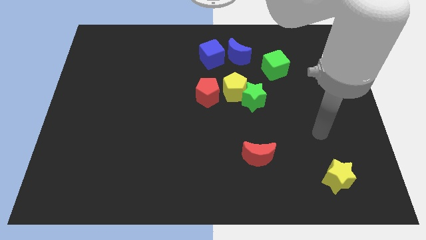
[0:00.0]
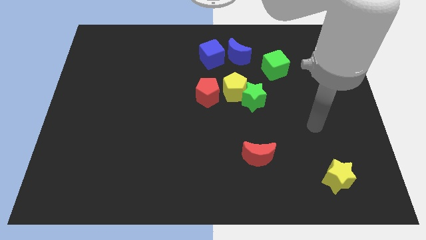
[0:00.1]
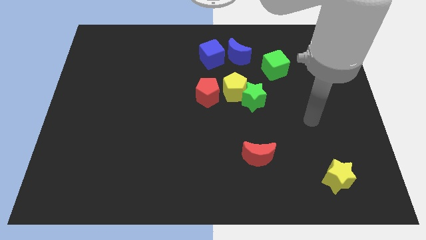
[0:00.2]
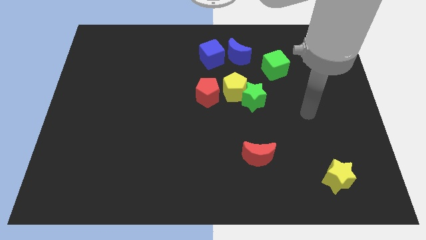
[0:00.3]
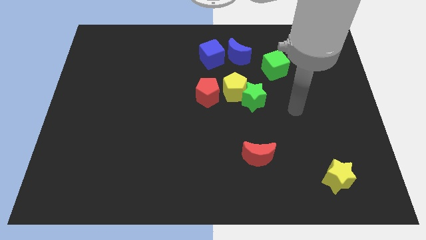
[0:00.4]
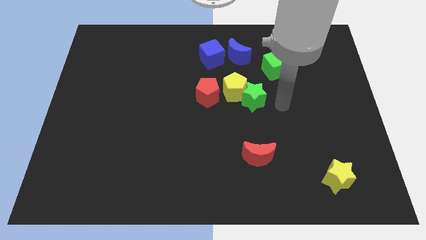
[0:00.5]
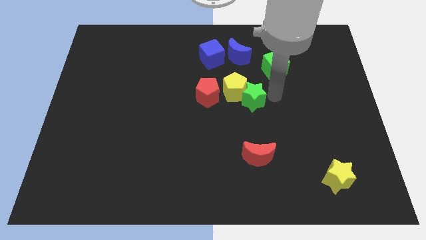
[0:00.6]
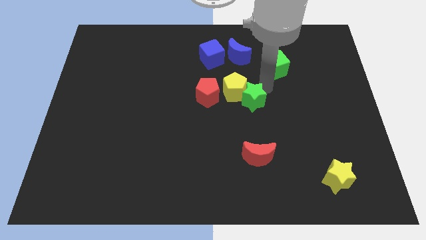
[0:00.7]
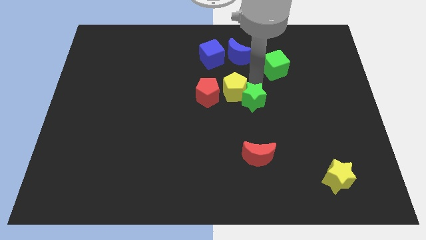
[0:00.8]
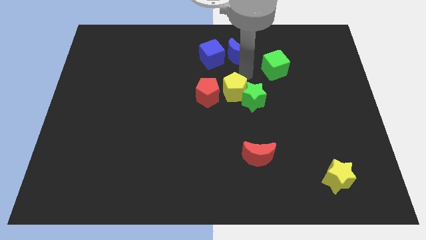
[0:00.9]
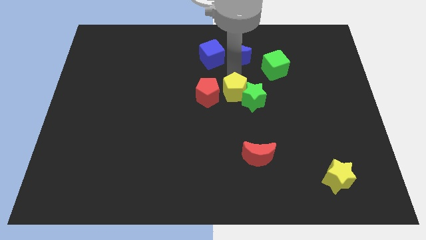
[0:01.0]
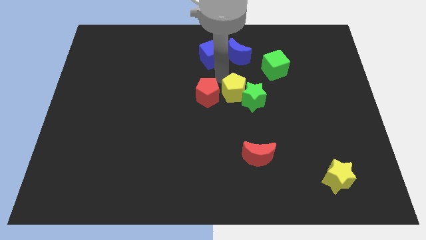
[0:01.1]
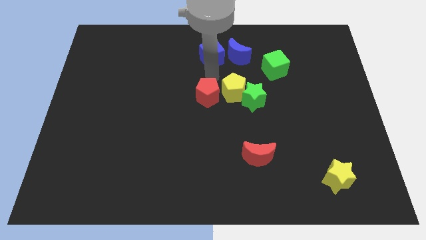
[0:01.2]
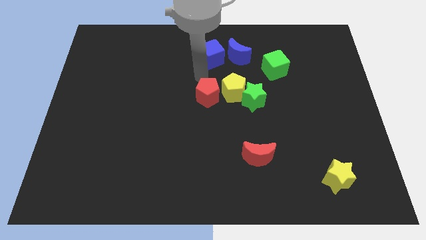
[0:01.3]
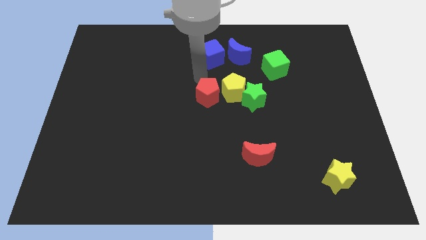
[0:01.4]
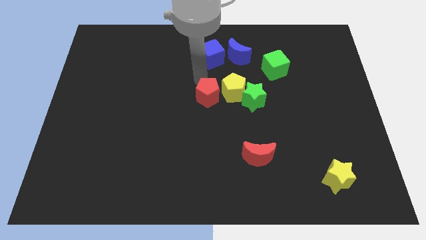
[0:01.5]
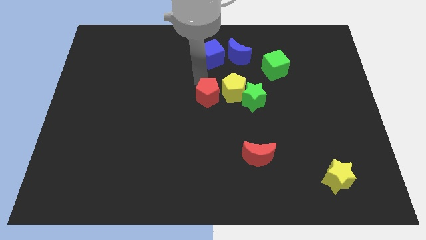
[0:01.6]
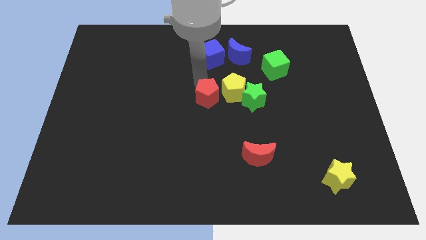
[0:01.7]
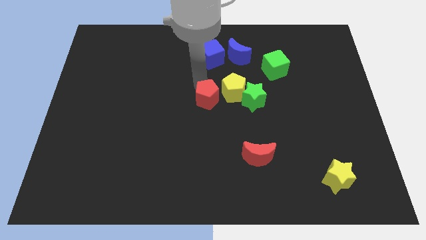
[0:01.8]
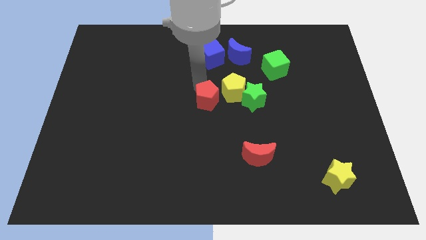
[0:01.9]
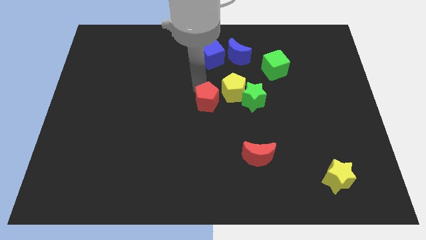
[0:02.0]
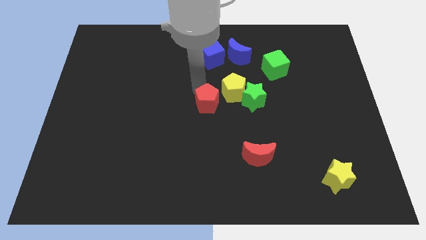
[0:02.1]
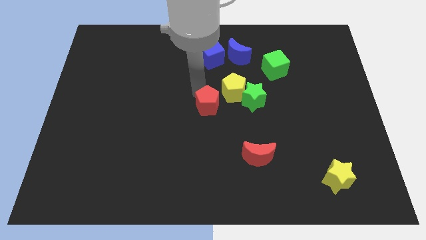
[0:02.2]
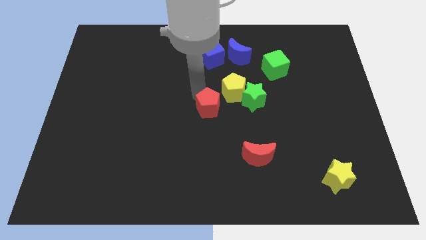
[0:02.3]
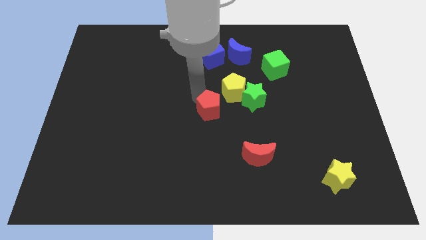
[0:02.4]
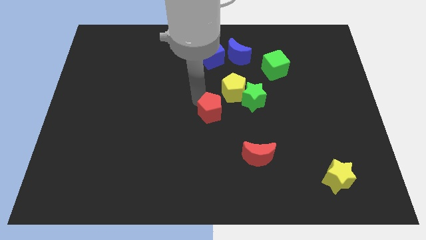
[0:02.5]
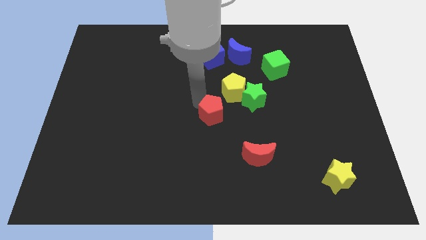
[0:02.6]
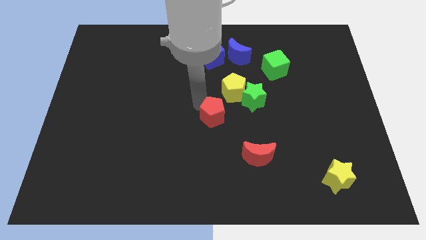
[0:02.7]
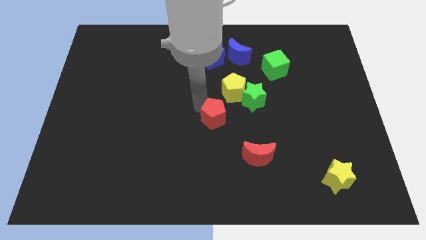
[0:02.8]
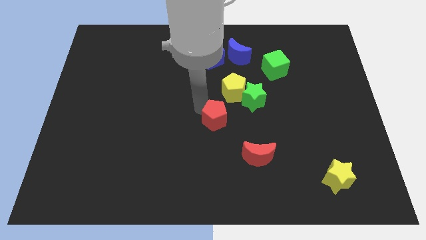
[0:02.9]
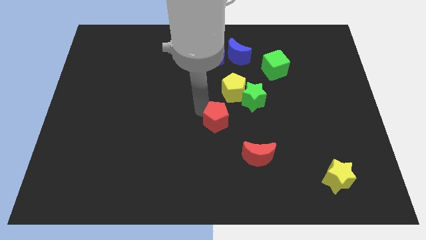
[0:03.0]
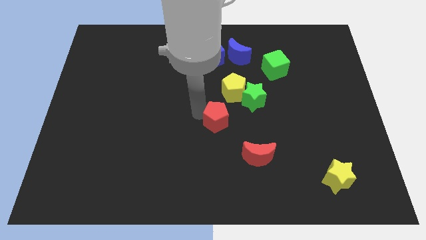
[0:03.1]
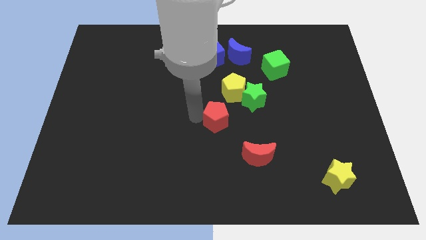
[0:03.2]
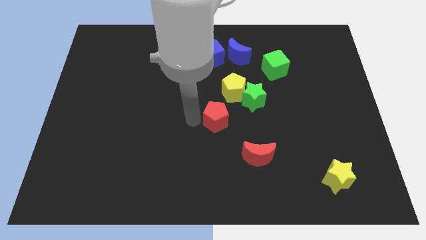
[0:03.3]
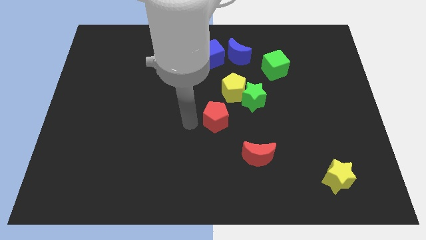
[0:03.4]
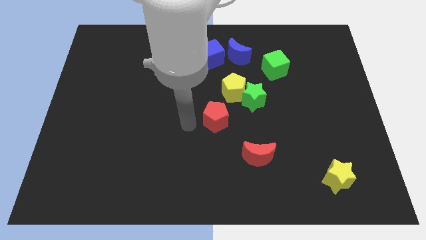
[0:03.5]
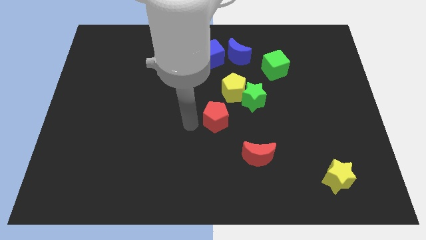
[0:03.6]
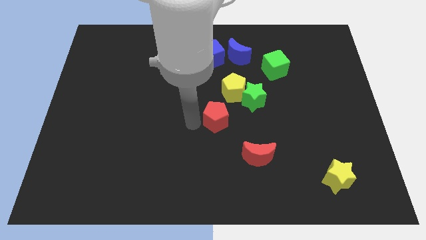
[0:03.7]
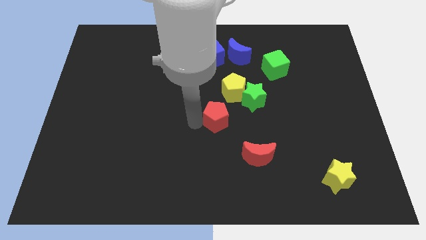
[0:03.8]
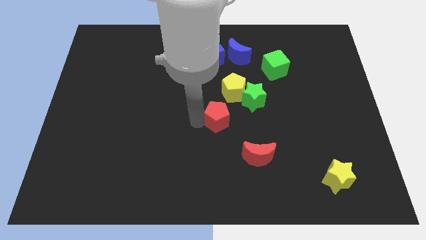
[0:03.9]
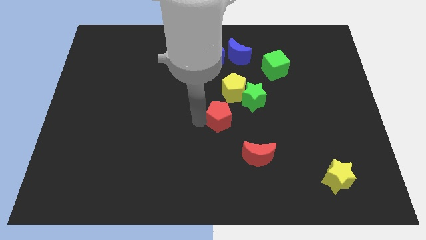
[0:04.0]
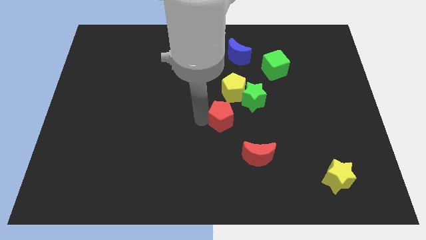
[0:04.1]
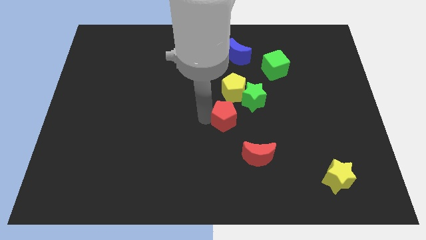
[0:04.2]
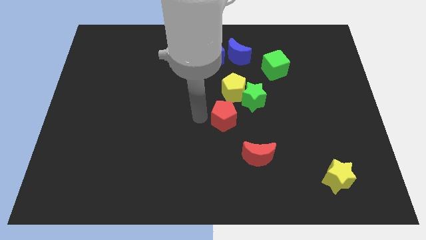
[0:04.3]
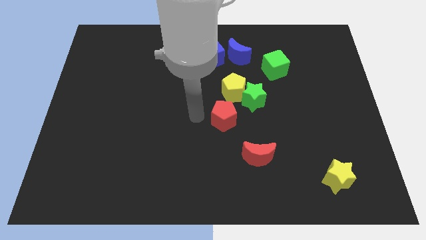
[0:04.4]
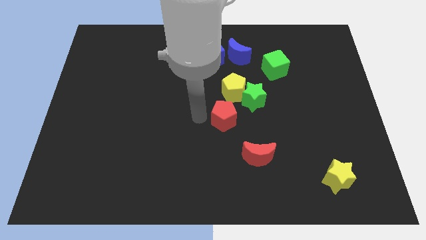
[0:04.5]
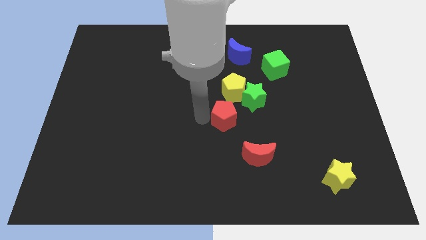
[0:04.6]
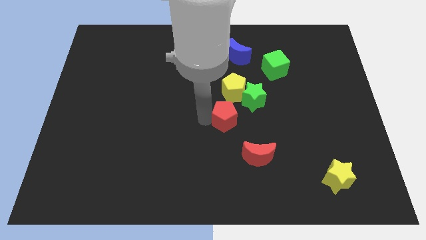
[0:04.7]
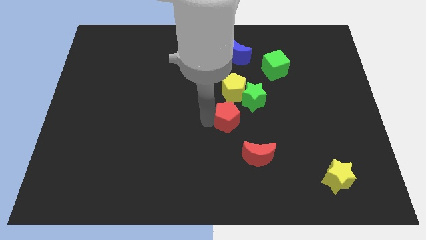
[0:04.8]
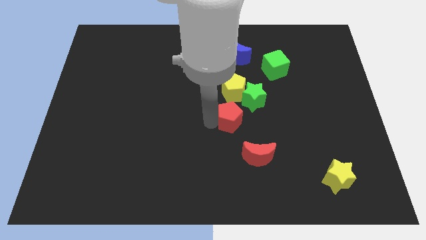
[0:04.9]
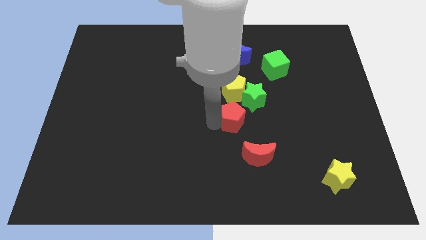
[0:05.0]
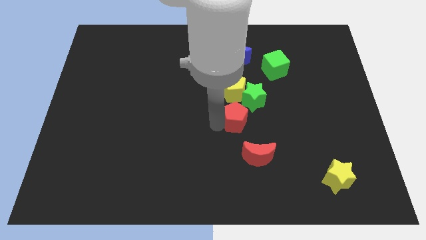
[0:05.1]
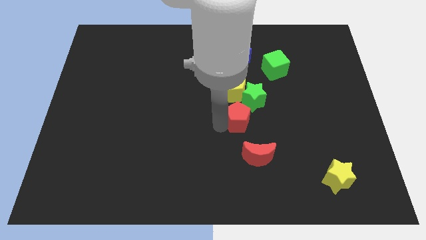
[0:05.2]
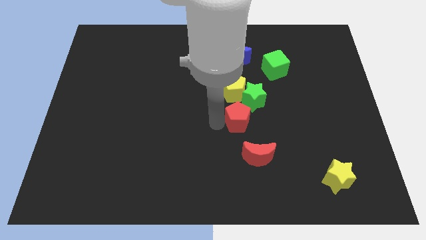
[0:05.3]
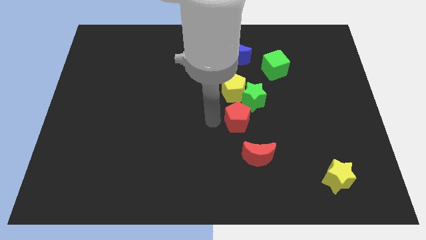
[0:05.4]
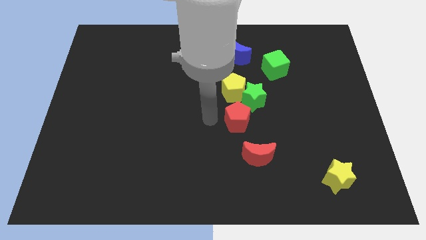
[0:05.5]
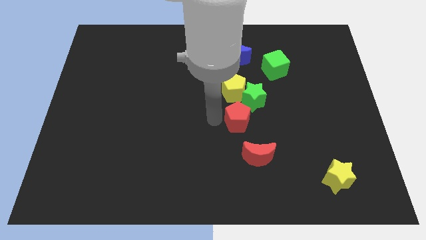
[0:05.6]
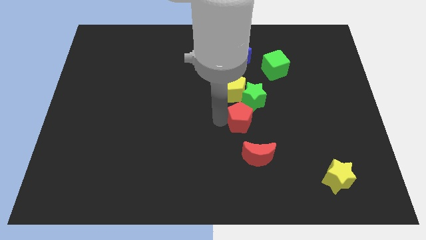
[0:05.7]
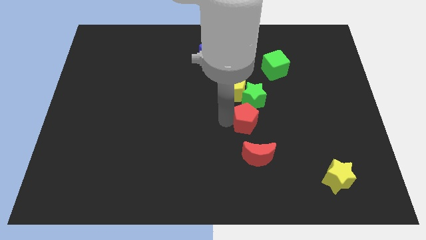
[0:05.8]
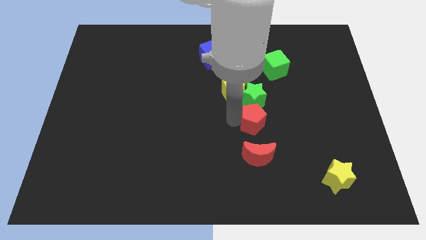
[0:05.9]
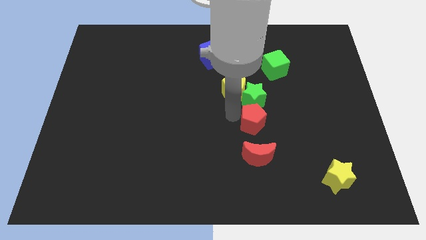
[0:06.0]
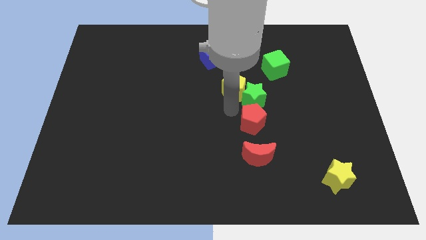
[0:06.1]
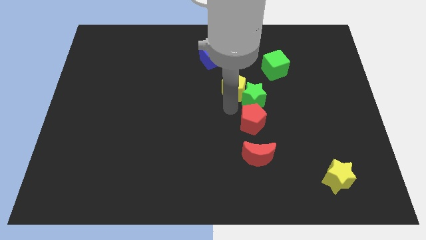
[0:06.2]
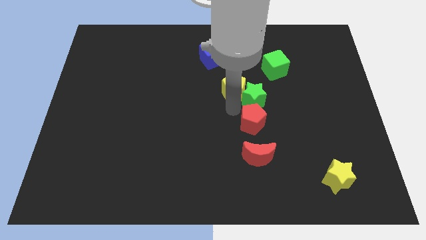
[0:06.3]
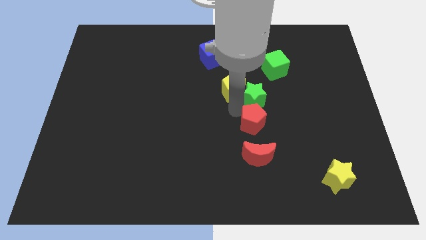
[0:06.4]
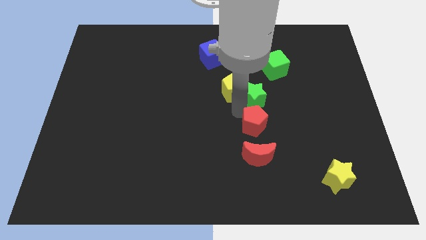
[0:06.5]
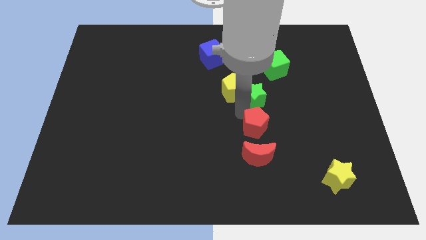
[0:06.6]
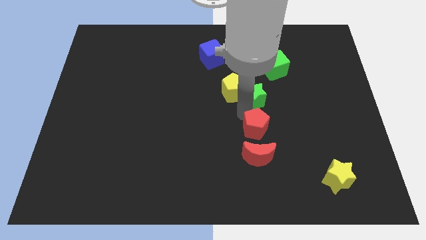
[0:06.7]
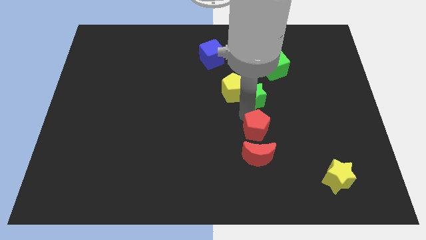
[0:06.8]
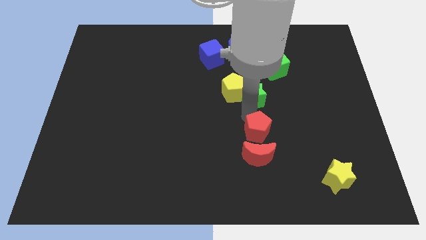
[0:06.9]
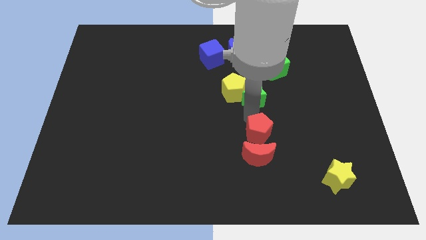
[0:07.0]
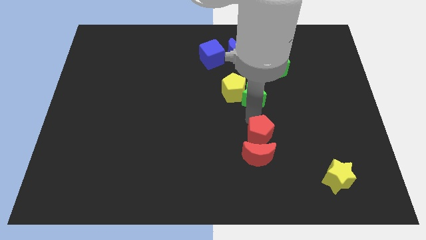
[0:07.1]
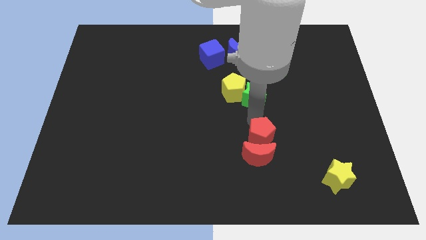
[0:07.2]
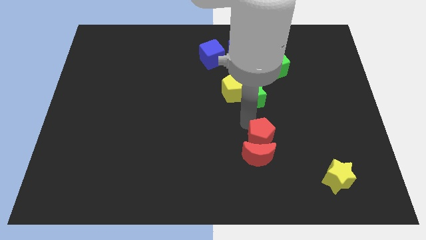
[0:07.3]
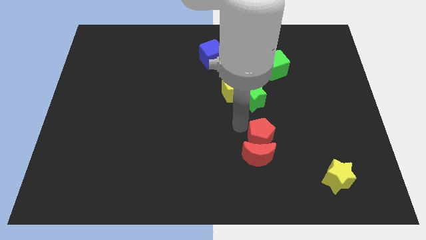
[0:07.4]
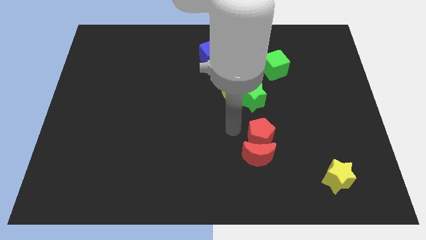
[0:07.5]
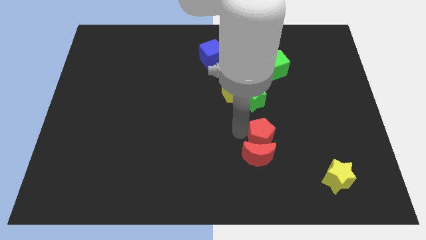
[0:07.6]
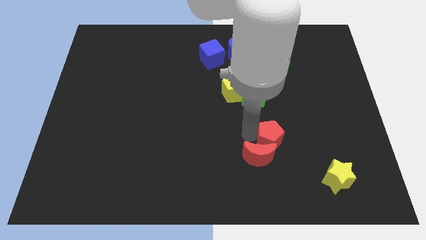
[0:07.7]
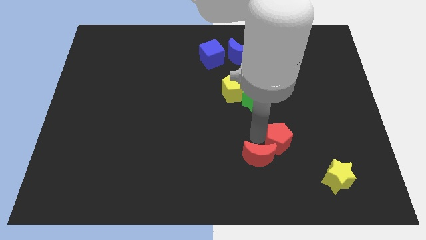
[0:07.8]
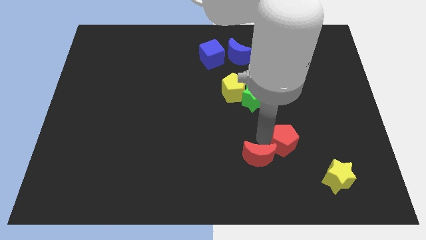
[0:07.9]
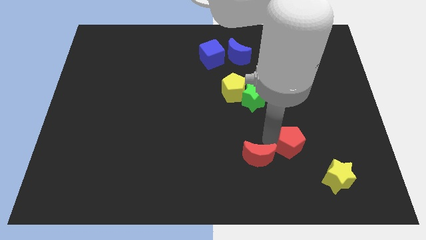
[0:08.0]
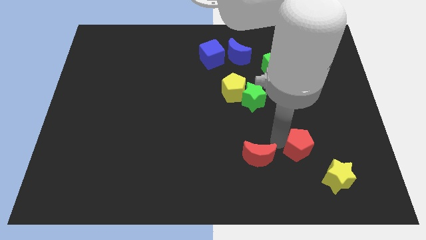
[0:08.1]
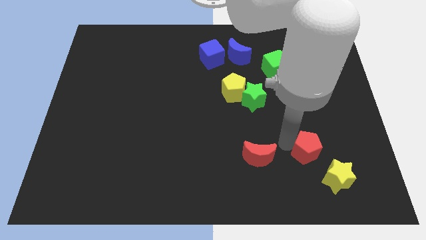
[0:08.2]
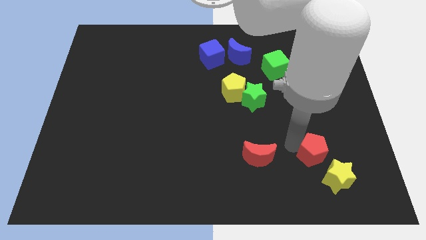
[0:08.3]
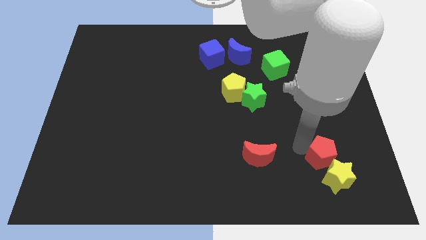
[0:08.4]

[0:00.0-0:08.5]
push the red pentagon towards the yellow star
